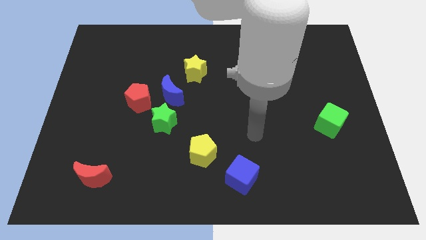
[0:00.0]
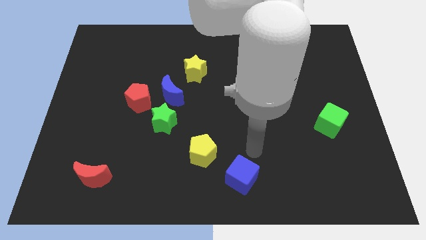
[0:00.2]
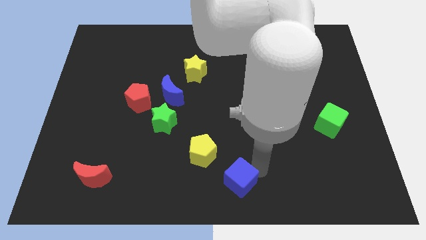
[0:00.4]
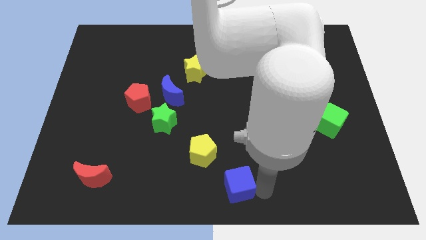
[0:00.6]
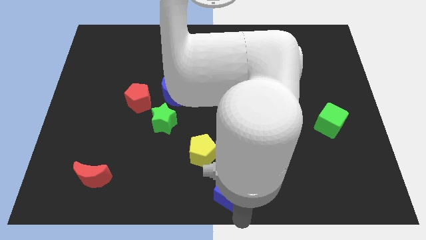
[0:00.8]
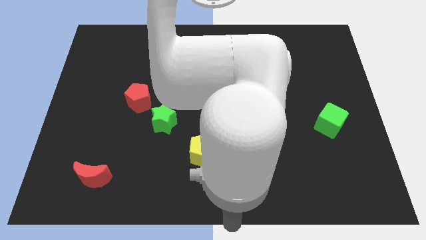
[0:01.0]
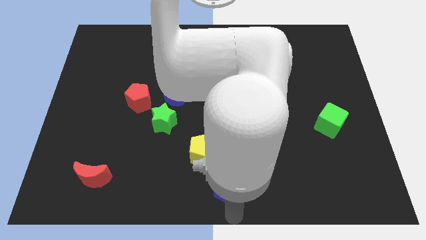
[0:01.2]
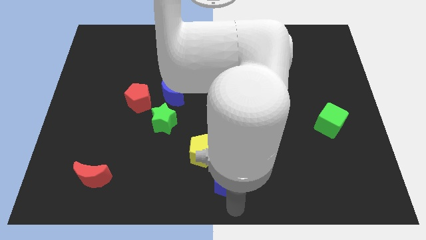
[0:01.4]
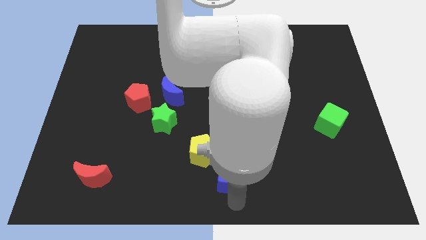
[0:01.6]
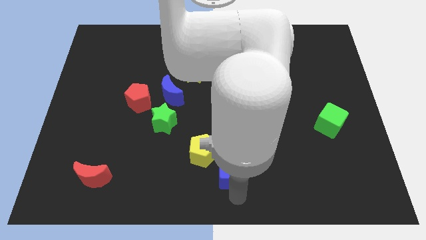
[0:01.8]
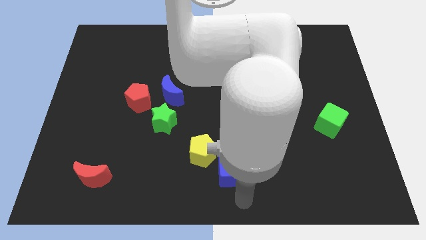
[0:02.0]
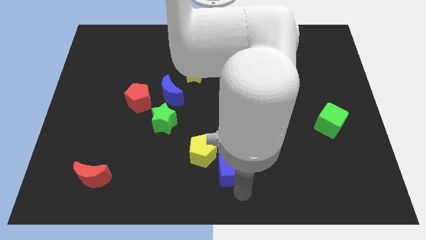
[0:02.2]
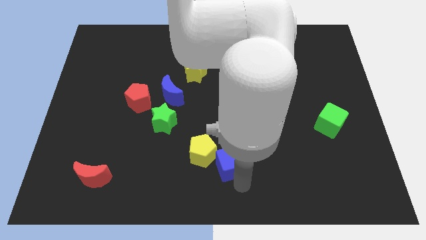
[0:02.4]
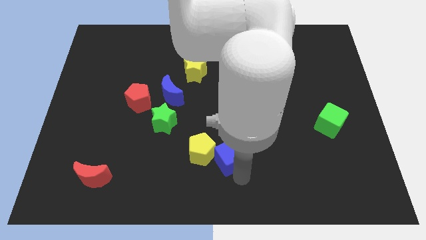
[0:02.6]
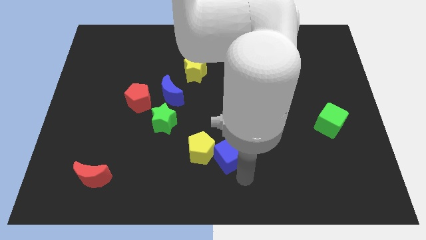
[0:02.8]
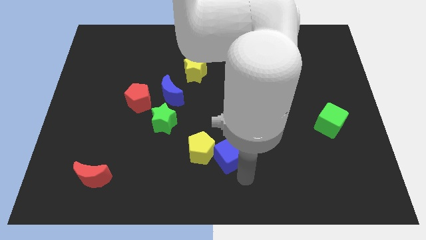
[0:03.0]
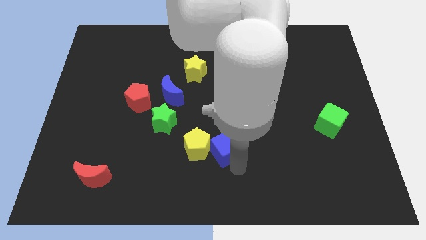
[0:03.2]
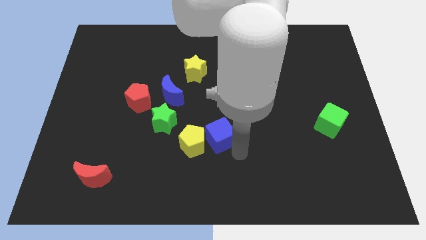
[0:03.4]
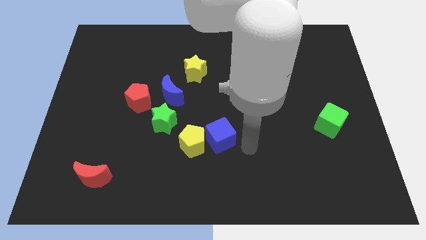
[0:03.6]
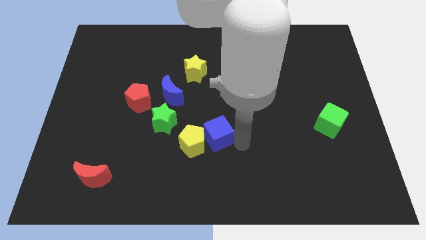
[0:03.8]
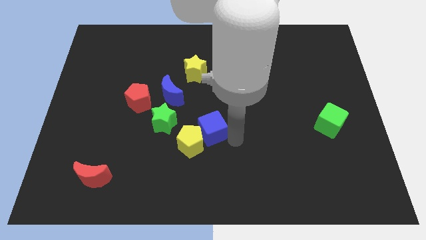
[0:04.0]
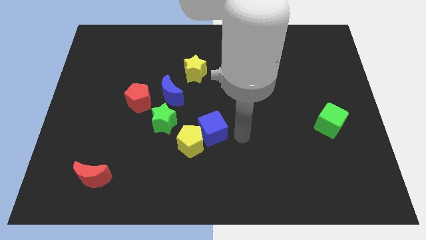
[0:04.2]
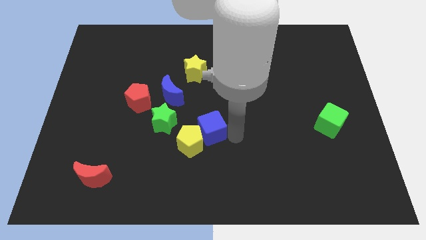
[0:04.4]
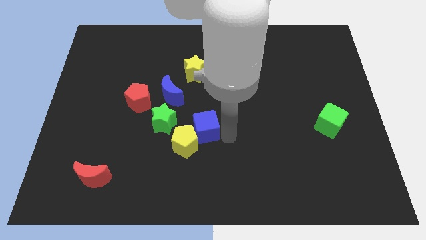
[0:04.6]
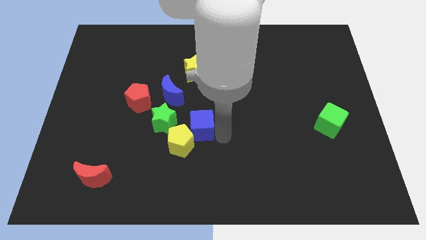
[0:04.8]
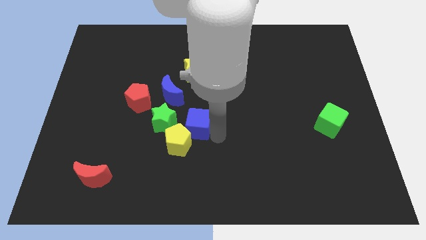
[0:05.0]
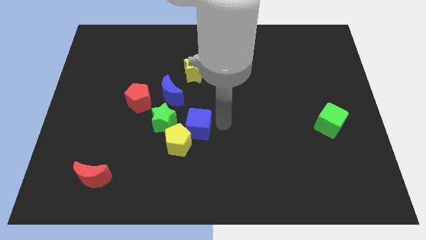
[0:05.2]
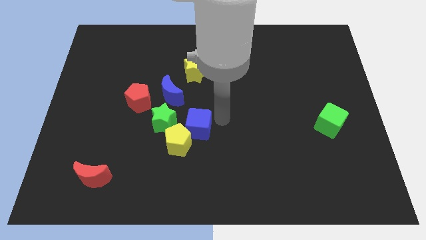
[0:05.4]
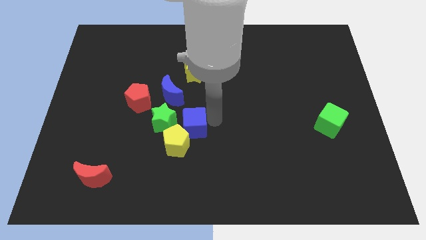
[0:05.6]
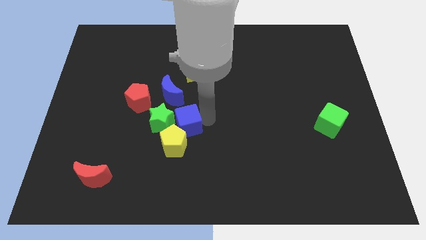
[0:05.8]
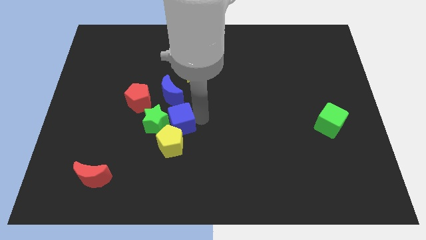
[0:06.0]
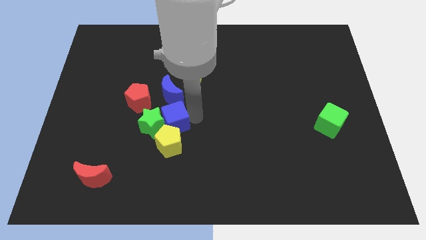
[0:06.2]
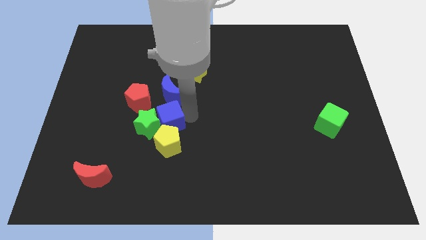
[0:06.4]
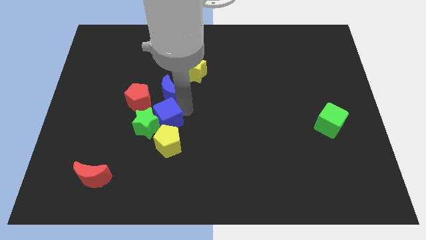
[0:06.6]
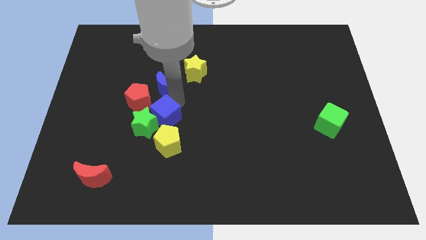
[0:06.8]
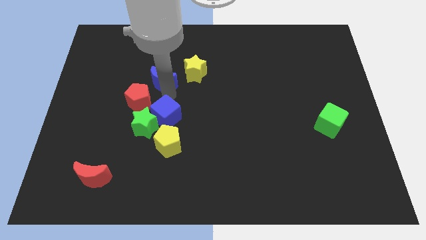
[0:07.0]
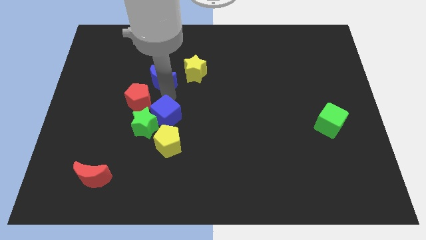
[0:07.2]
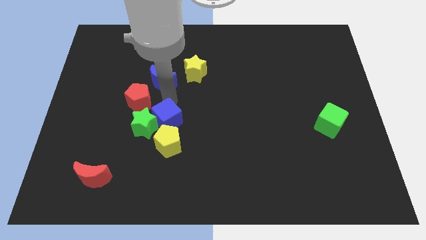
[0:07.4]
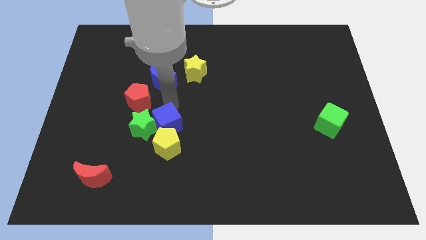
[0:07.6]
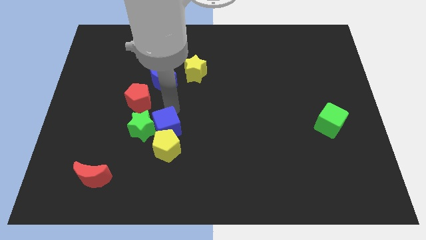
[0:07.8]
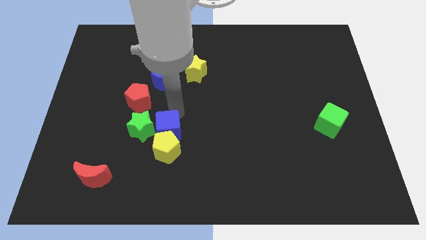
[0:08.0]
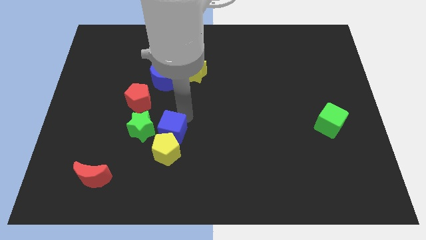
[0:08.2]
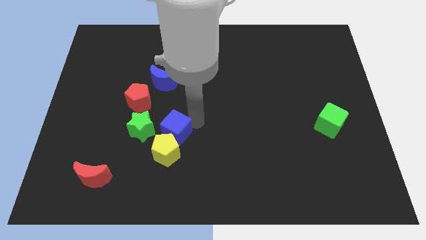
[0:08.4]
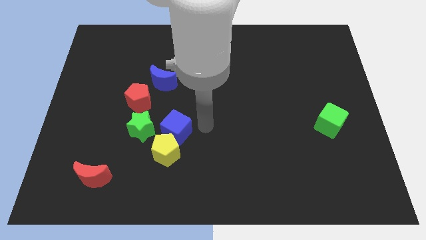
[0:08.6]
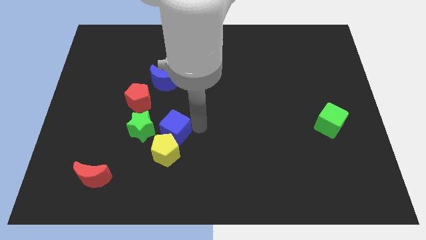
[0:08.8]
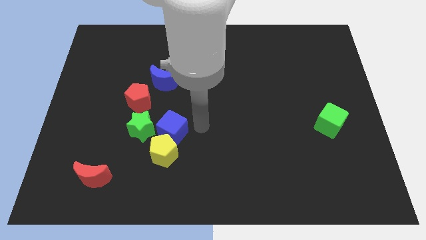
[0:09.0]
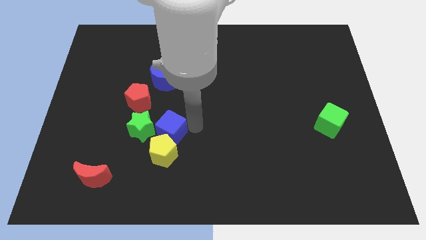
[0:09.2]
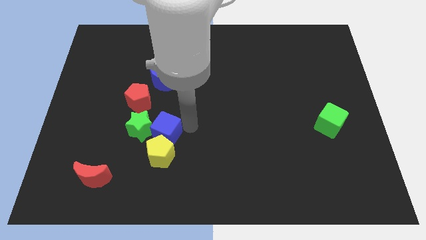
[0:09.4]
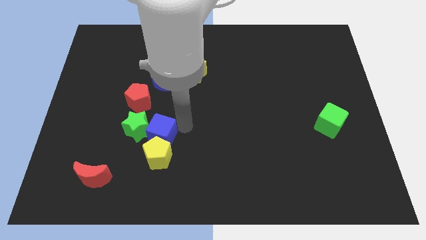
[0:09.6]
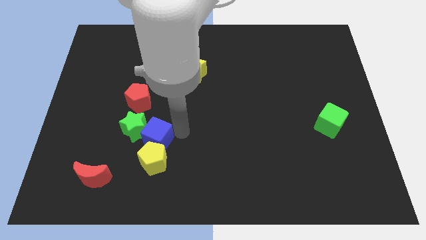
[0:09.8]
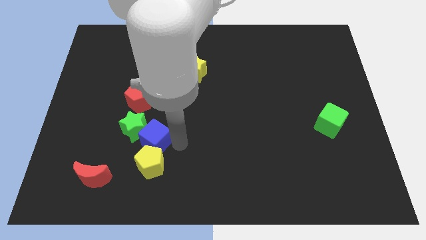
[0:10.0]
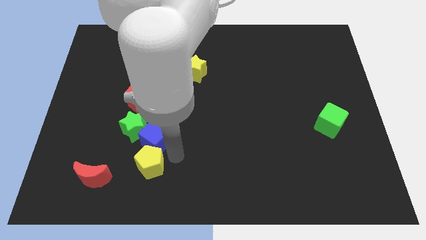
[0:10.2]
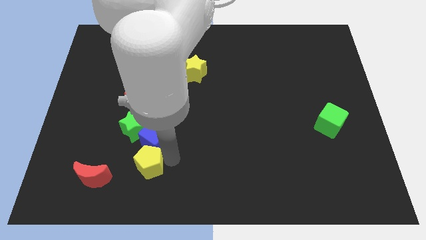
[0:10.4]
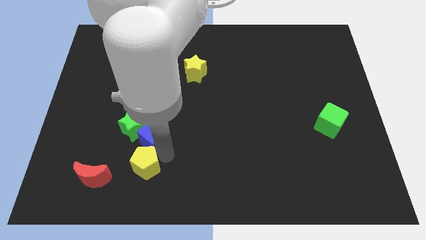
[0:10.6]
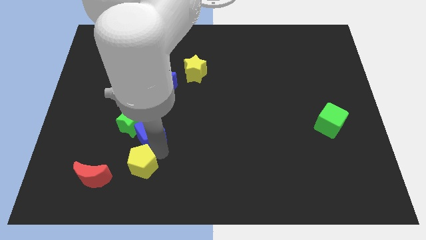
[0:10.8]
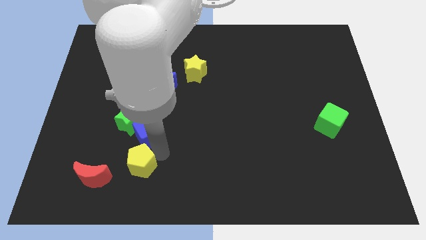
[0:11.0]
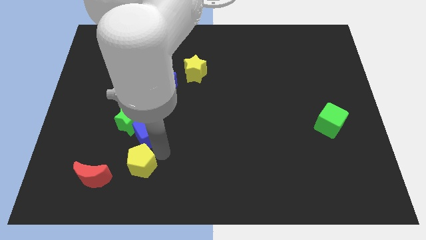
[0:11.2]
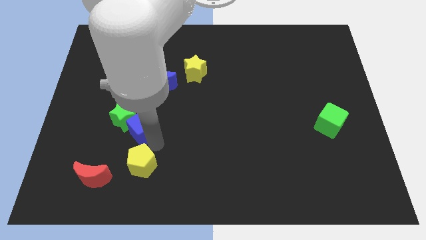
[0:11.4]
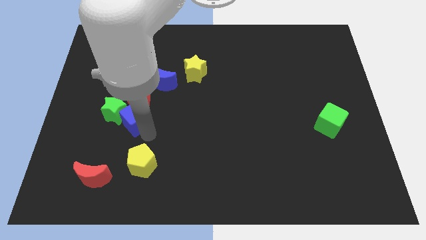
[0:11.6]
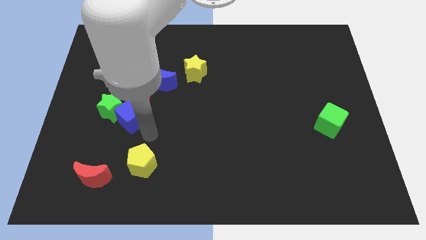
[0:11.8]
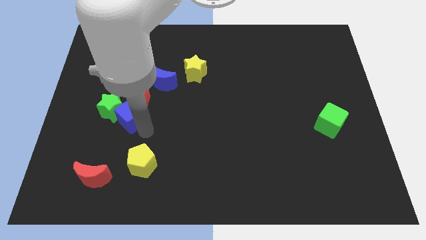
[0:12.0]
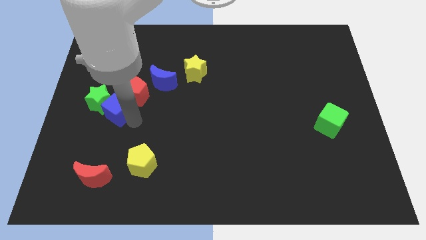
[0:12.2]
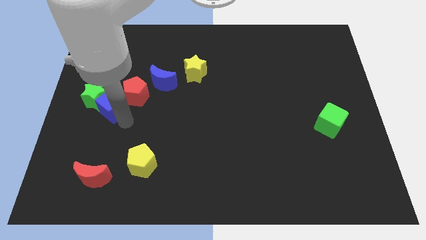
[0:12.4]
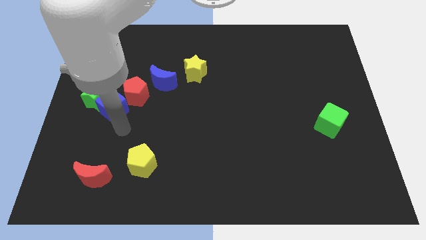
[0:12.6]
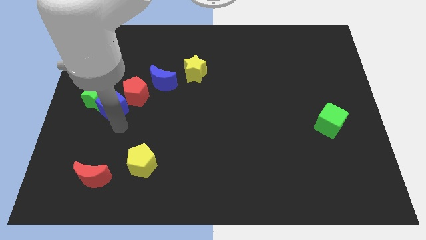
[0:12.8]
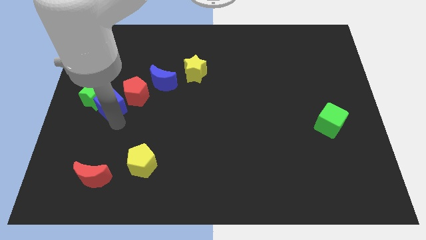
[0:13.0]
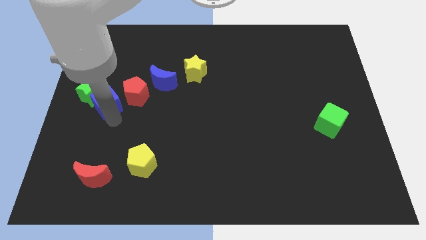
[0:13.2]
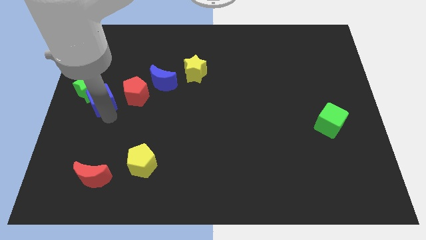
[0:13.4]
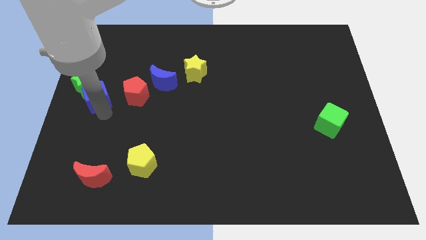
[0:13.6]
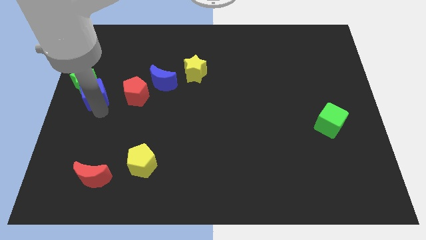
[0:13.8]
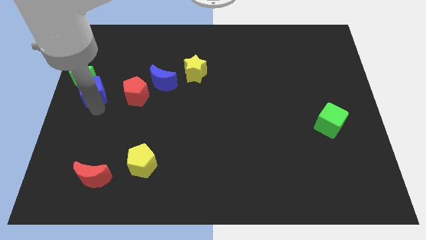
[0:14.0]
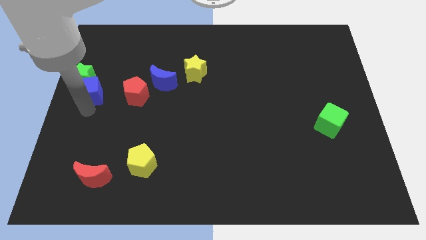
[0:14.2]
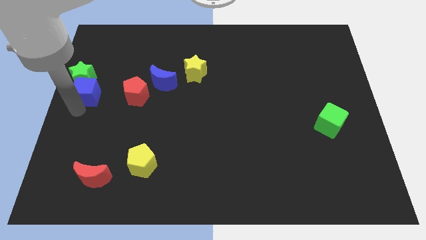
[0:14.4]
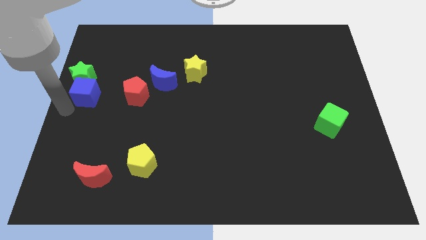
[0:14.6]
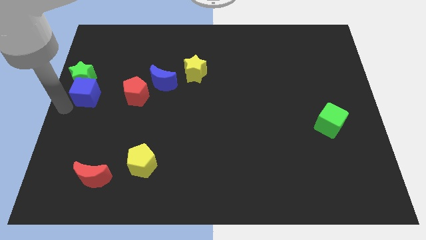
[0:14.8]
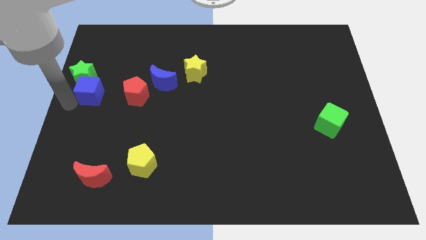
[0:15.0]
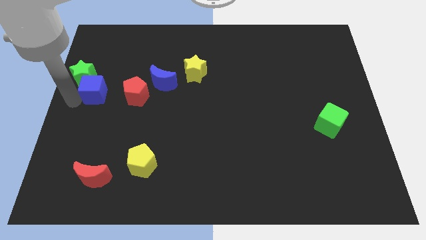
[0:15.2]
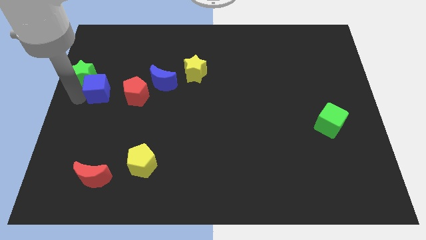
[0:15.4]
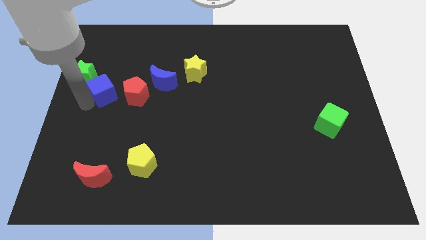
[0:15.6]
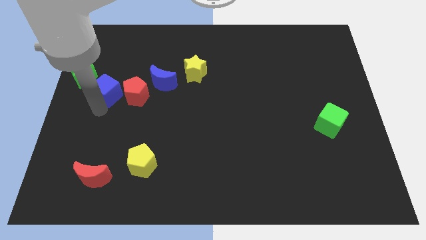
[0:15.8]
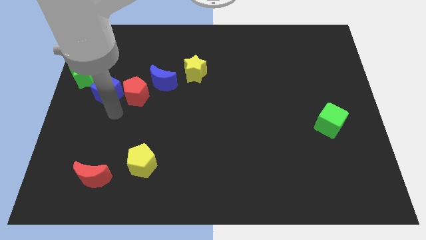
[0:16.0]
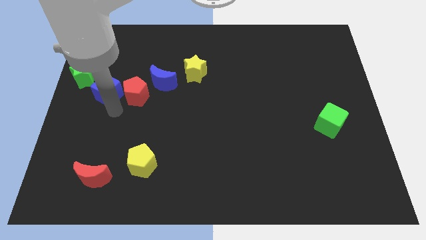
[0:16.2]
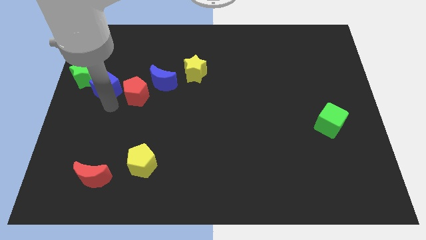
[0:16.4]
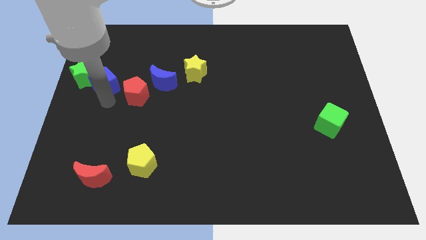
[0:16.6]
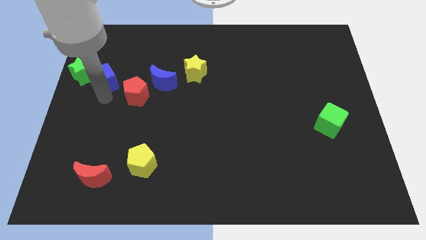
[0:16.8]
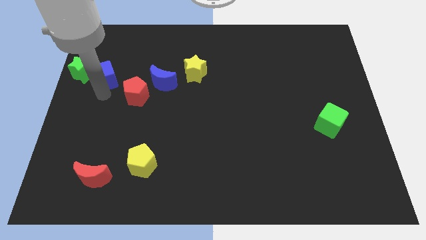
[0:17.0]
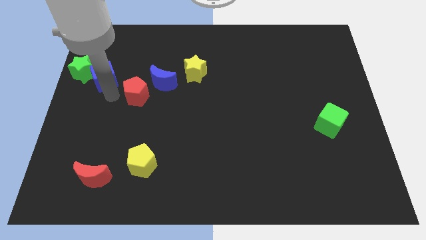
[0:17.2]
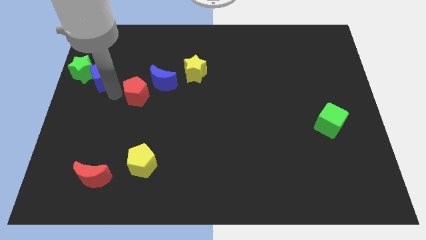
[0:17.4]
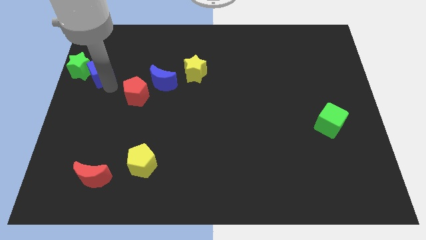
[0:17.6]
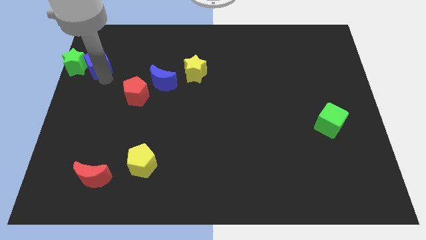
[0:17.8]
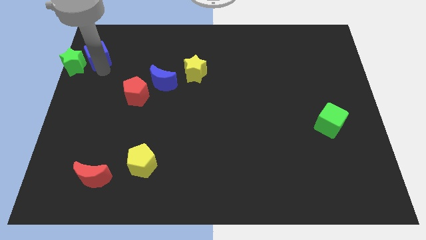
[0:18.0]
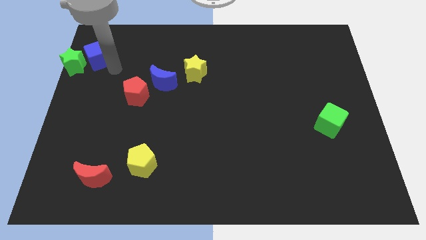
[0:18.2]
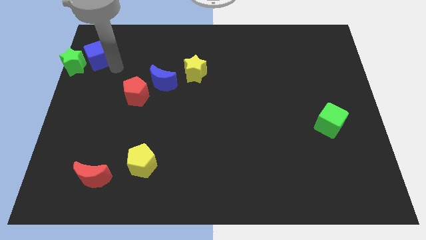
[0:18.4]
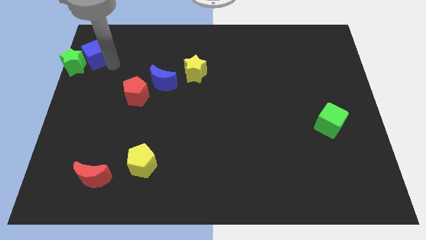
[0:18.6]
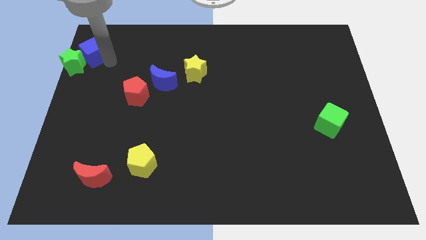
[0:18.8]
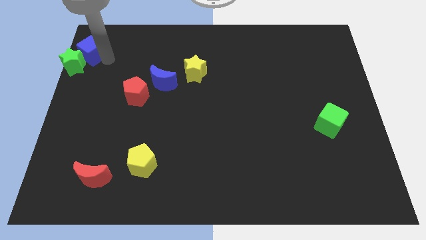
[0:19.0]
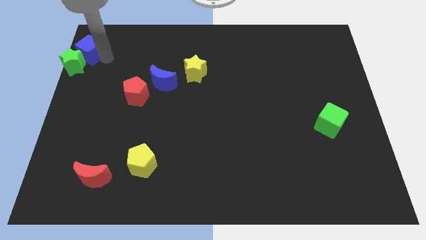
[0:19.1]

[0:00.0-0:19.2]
push the blue cube to the top left of the board
